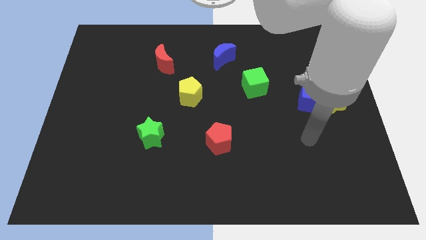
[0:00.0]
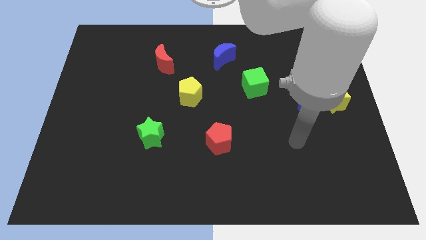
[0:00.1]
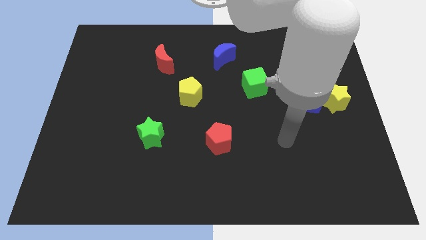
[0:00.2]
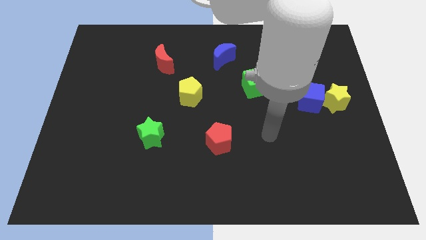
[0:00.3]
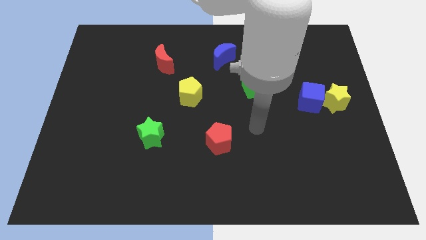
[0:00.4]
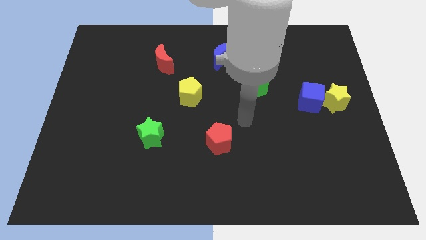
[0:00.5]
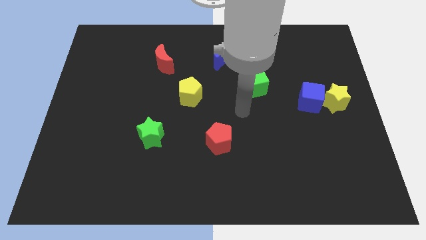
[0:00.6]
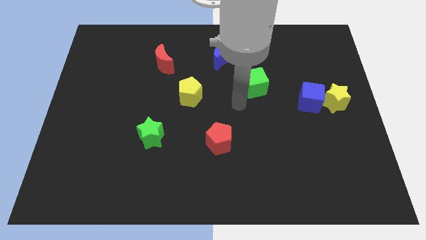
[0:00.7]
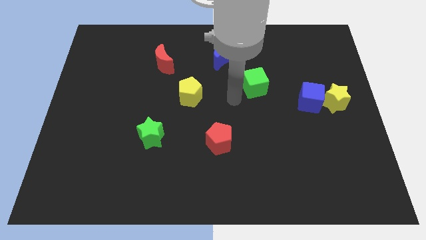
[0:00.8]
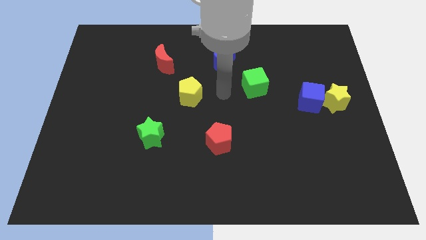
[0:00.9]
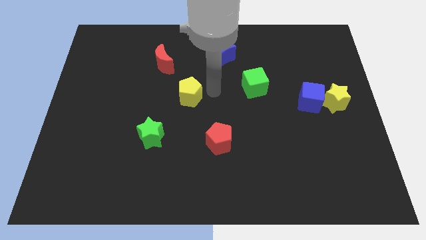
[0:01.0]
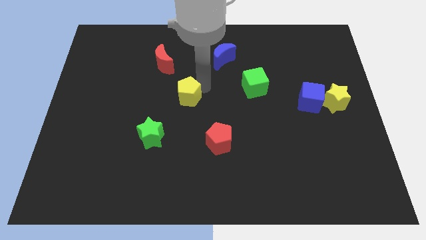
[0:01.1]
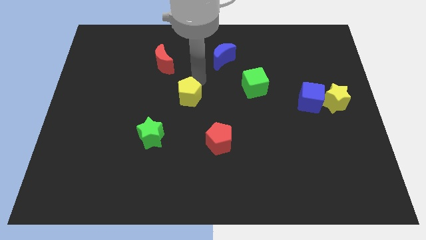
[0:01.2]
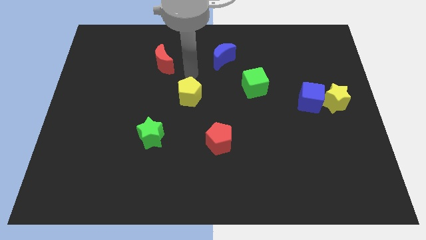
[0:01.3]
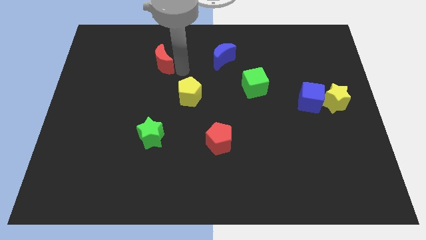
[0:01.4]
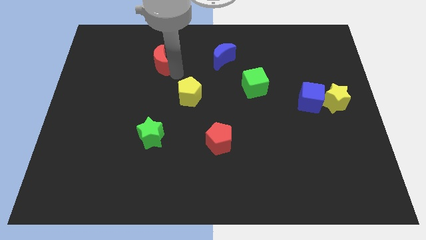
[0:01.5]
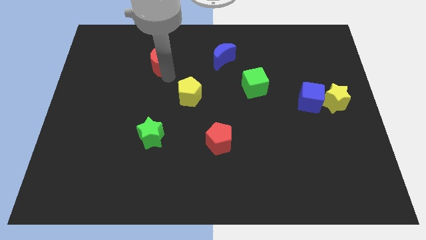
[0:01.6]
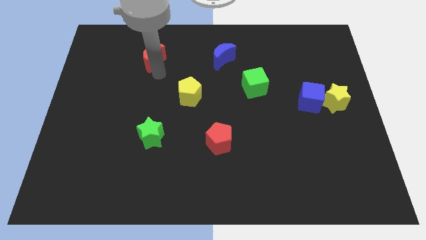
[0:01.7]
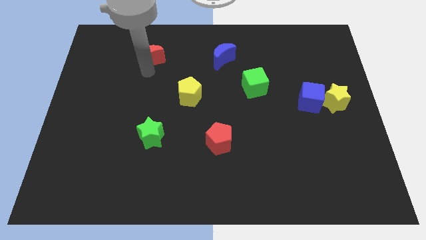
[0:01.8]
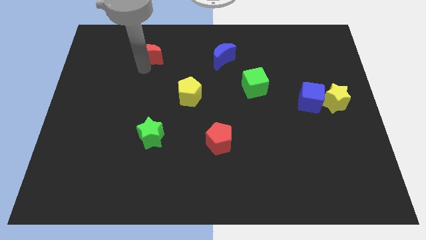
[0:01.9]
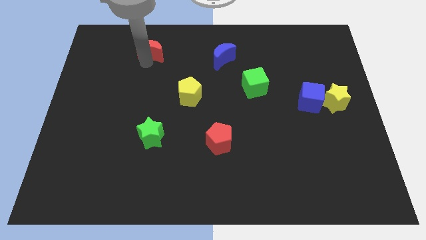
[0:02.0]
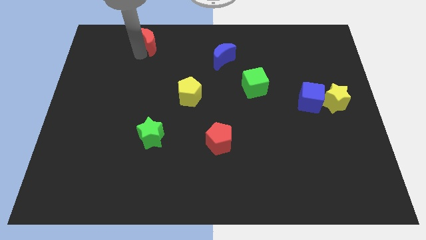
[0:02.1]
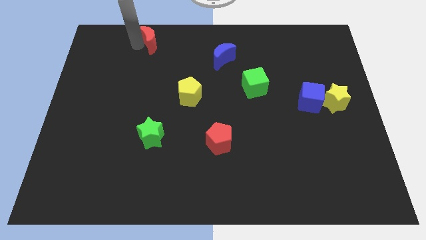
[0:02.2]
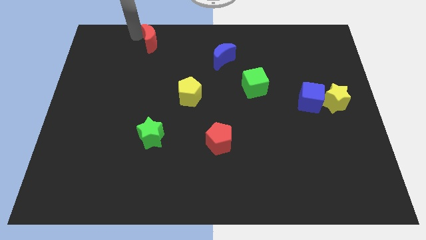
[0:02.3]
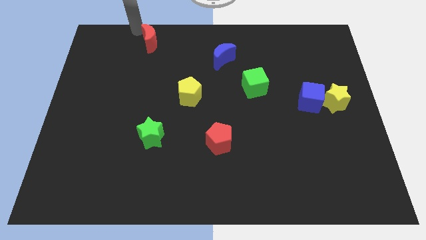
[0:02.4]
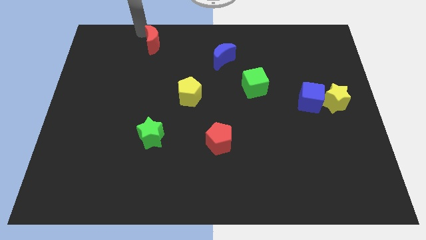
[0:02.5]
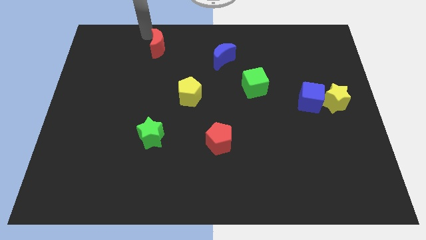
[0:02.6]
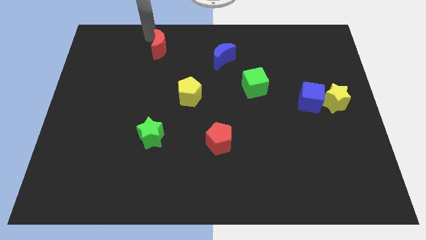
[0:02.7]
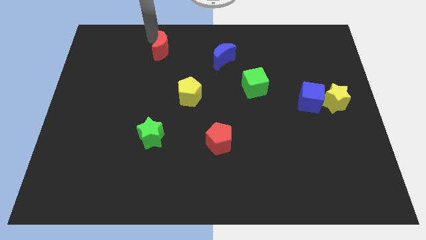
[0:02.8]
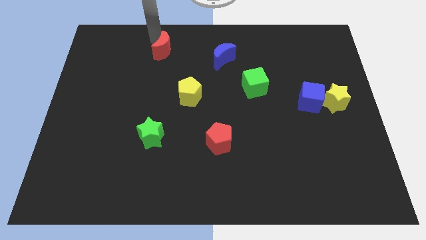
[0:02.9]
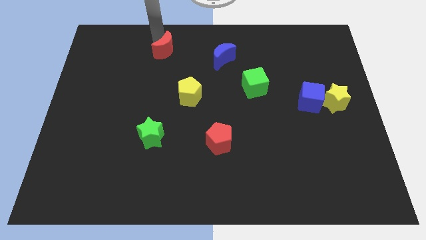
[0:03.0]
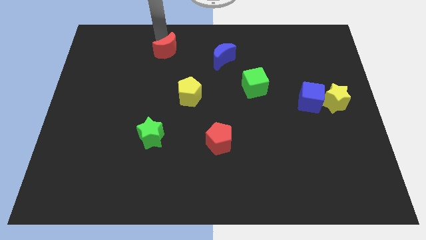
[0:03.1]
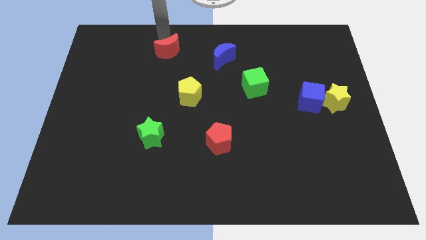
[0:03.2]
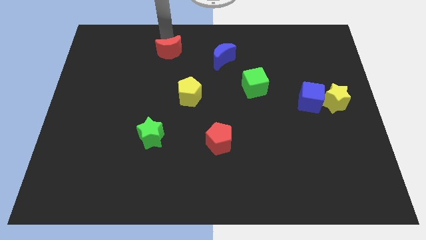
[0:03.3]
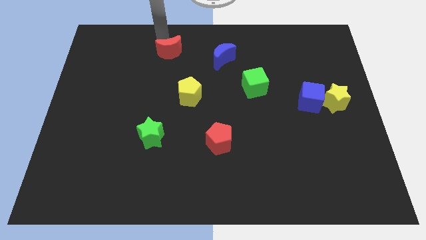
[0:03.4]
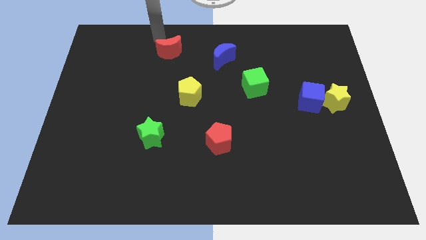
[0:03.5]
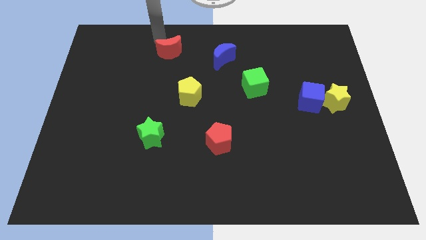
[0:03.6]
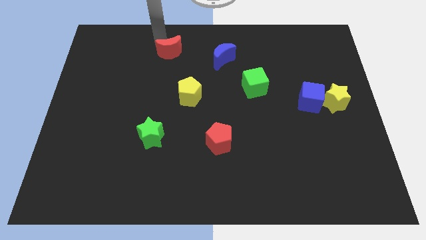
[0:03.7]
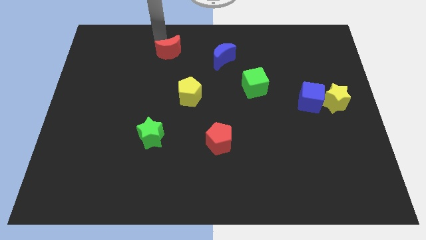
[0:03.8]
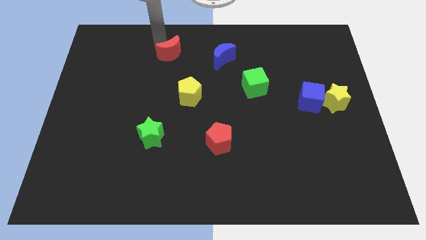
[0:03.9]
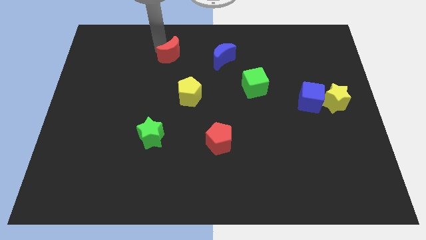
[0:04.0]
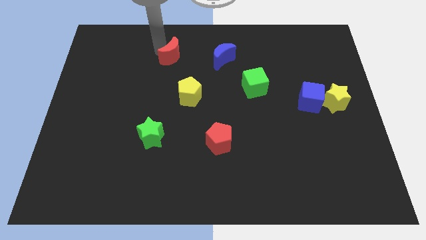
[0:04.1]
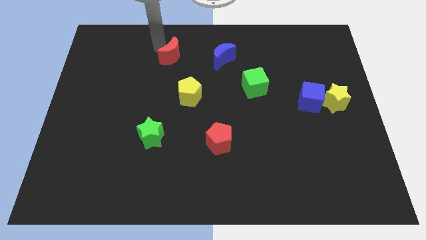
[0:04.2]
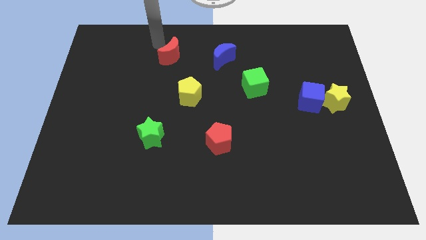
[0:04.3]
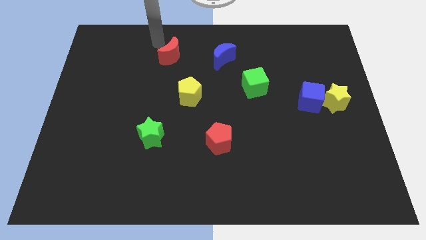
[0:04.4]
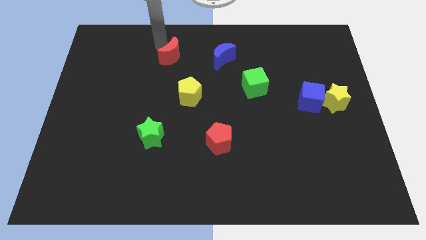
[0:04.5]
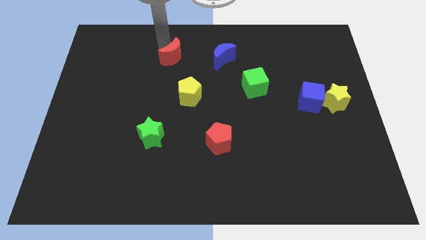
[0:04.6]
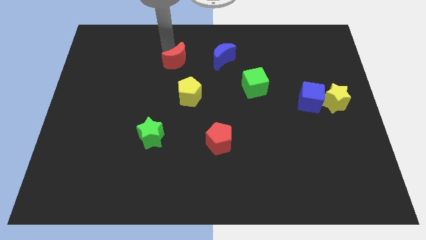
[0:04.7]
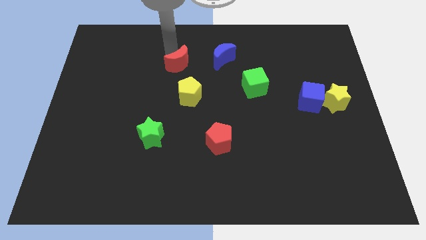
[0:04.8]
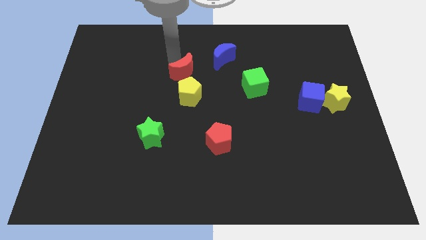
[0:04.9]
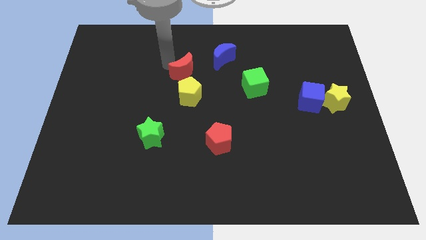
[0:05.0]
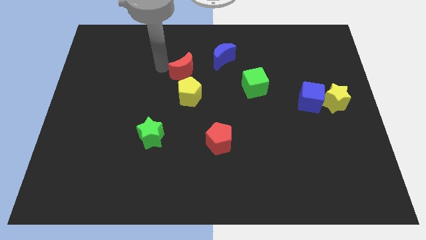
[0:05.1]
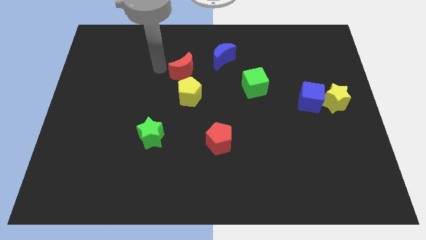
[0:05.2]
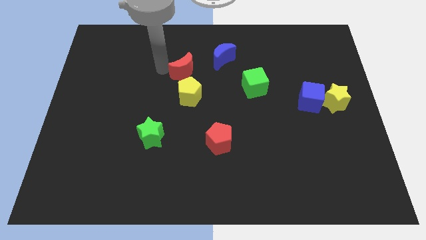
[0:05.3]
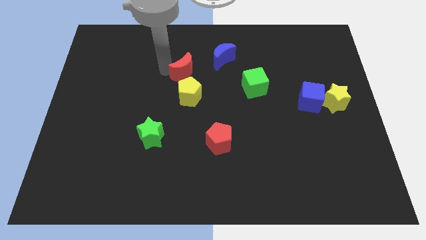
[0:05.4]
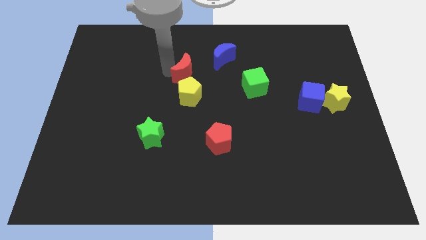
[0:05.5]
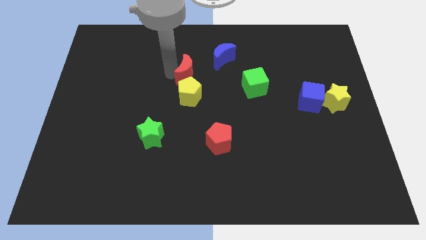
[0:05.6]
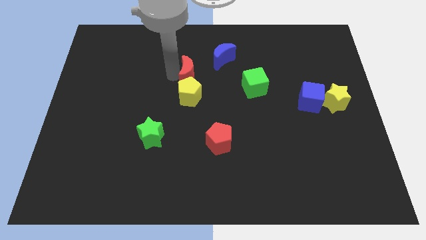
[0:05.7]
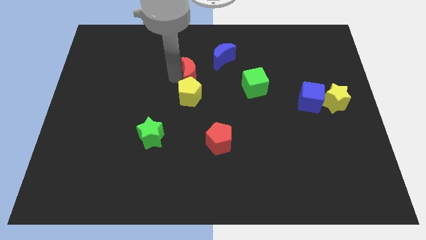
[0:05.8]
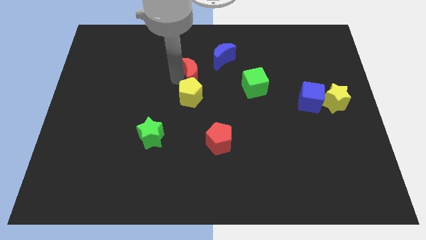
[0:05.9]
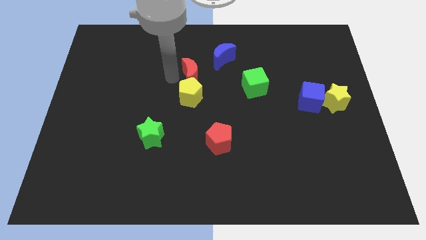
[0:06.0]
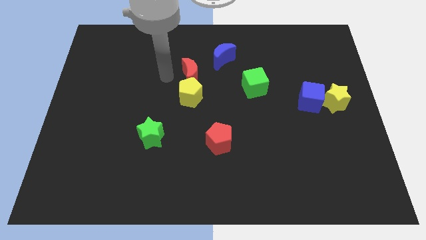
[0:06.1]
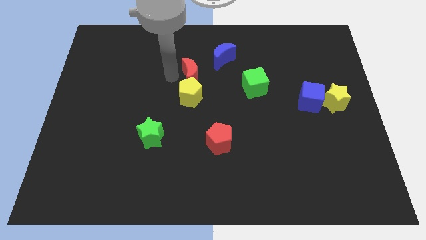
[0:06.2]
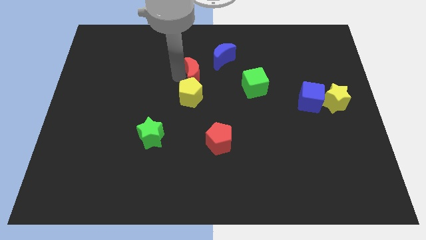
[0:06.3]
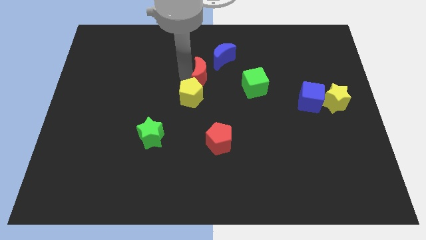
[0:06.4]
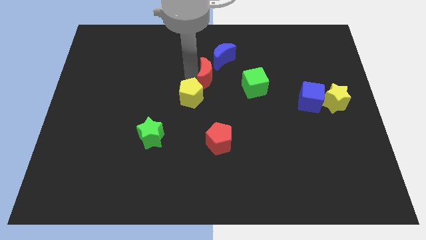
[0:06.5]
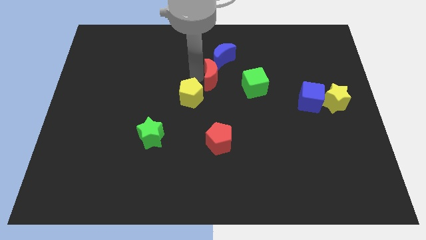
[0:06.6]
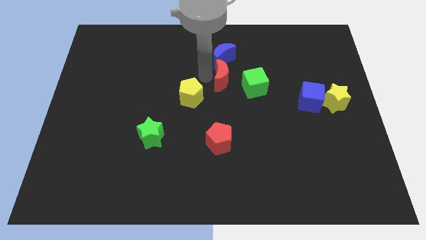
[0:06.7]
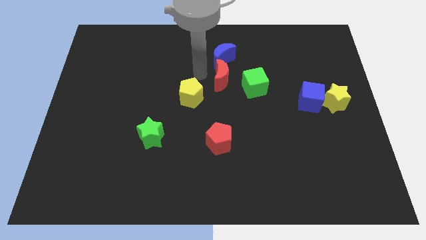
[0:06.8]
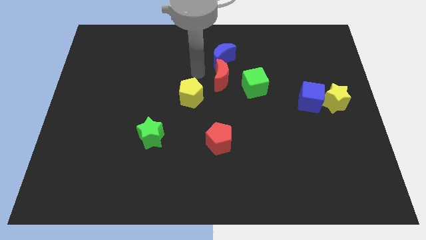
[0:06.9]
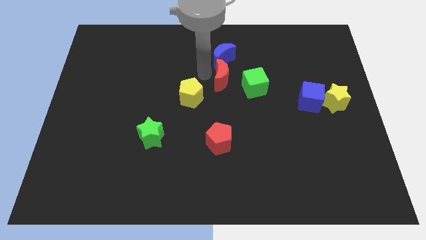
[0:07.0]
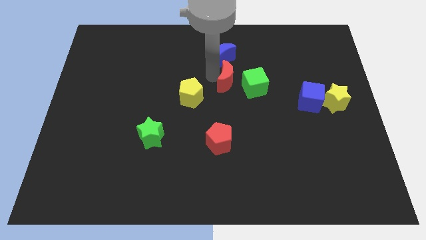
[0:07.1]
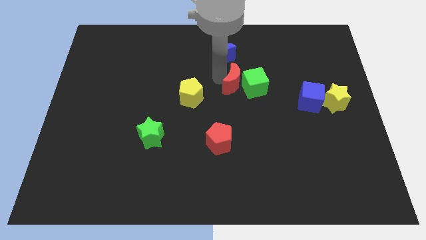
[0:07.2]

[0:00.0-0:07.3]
push the red moon to the green cube
